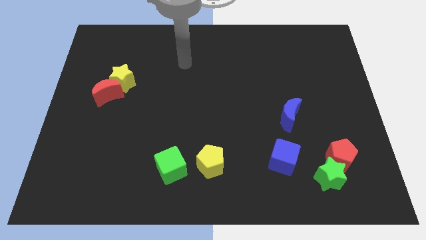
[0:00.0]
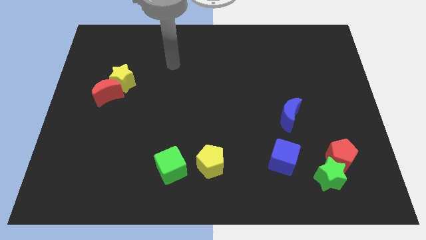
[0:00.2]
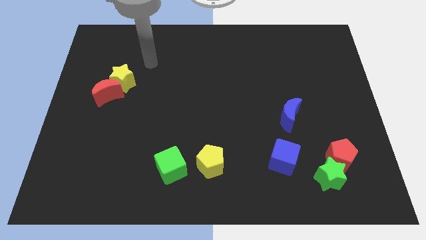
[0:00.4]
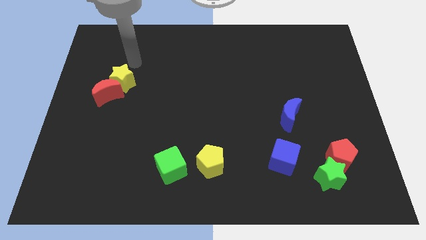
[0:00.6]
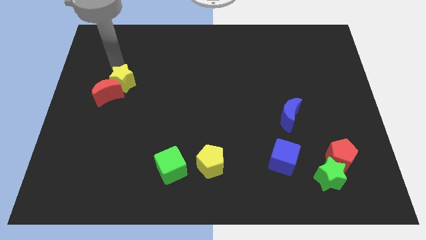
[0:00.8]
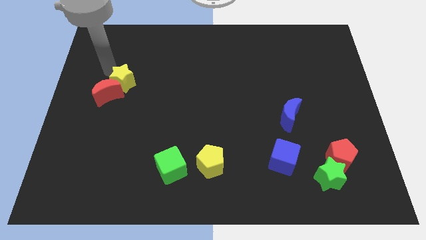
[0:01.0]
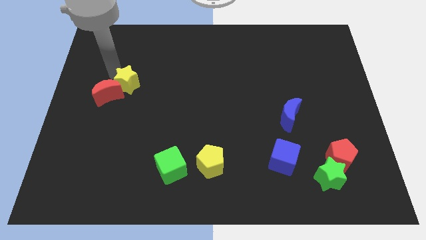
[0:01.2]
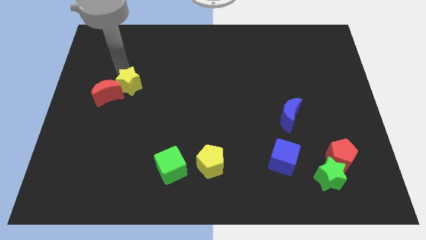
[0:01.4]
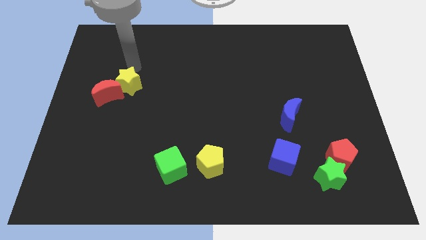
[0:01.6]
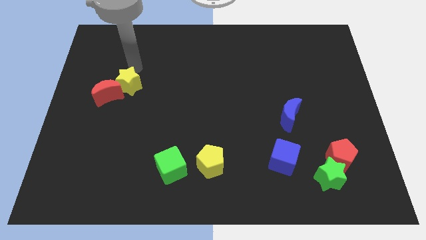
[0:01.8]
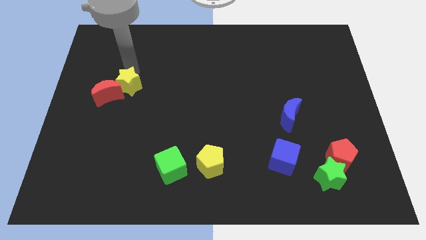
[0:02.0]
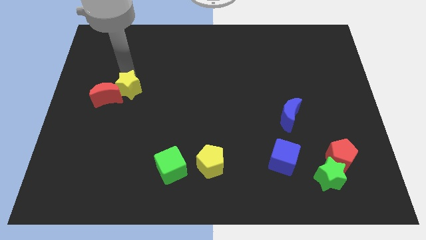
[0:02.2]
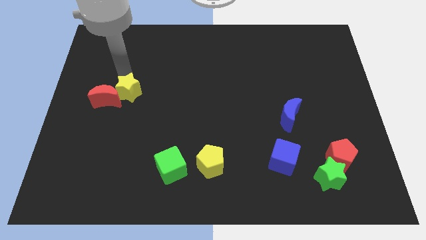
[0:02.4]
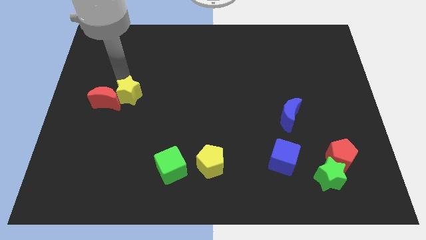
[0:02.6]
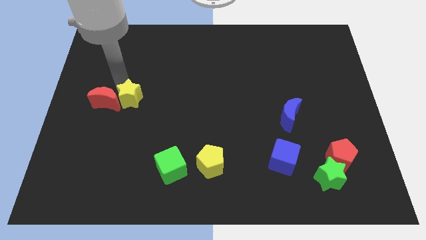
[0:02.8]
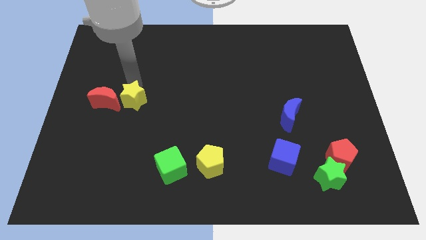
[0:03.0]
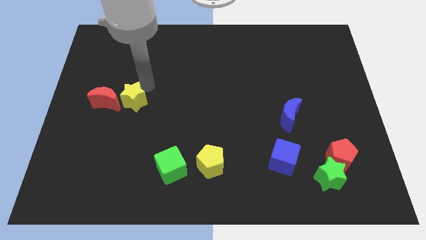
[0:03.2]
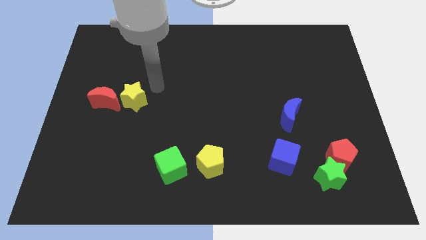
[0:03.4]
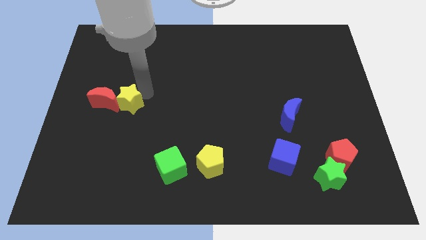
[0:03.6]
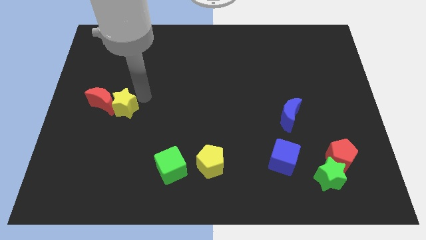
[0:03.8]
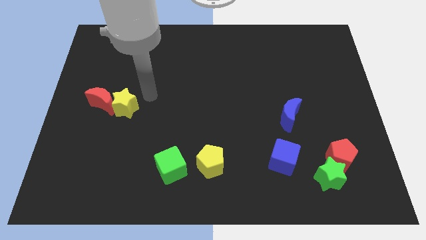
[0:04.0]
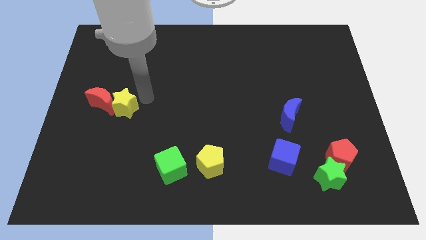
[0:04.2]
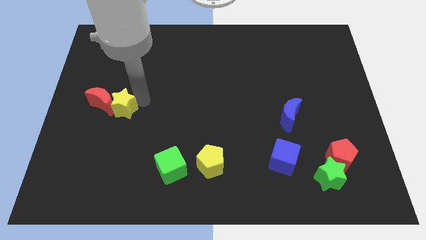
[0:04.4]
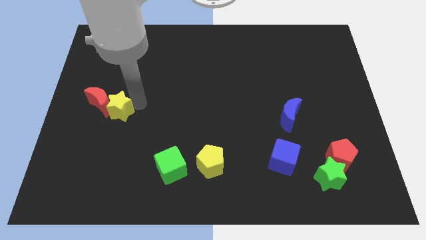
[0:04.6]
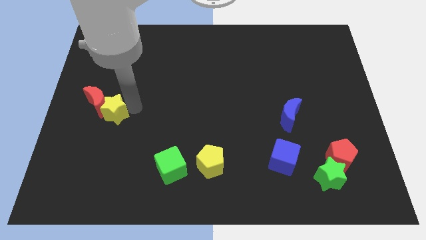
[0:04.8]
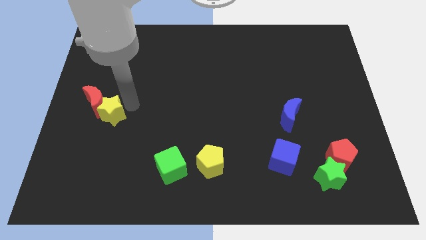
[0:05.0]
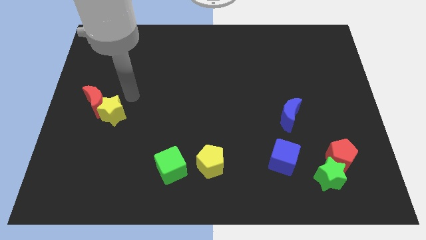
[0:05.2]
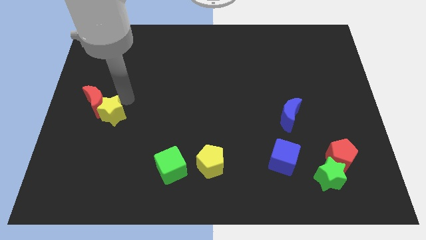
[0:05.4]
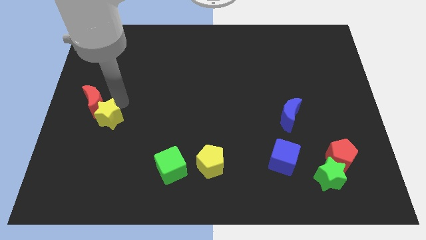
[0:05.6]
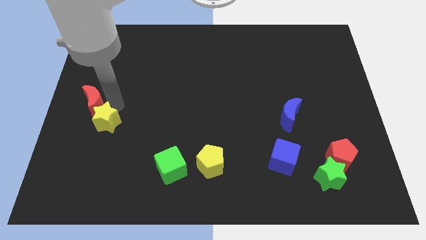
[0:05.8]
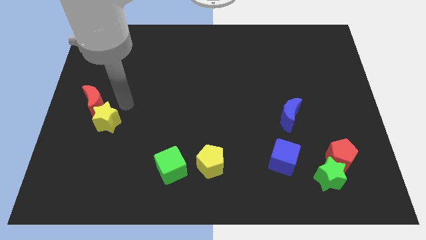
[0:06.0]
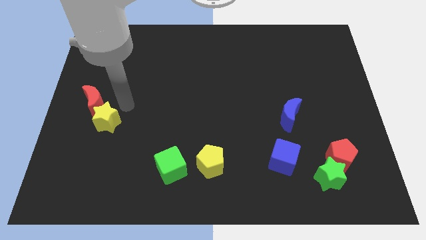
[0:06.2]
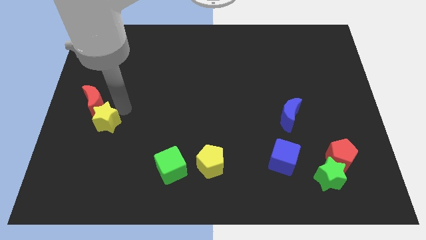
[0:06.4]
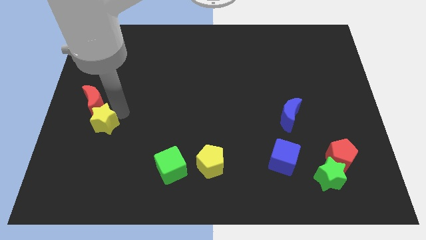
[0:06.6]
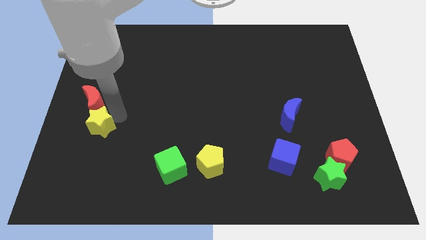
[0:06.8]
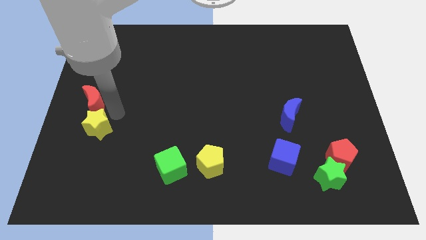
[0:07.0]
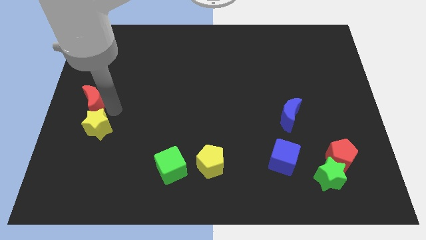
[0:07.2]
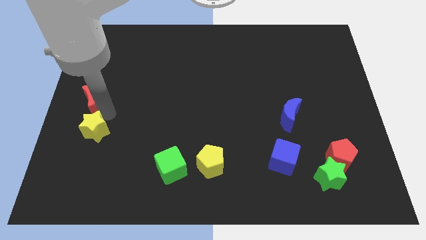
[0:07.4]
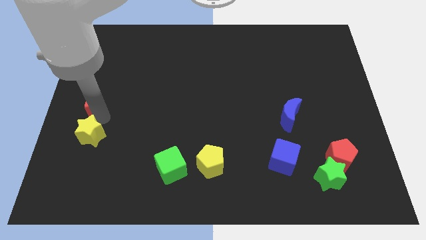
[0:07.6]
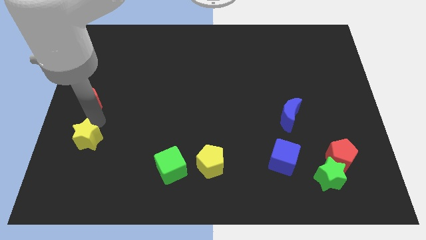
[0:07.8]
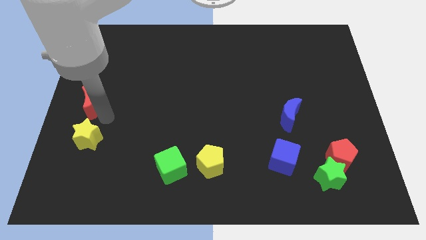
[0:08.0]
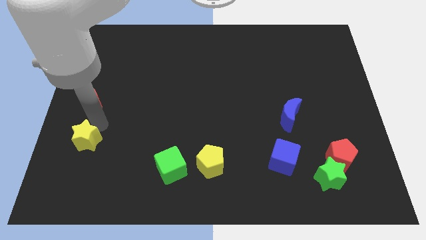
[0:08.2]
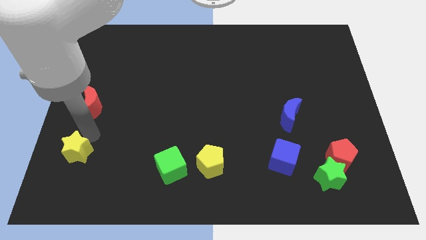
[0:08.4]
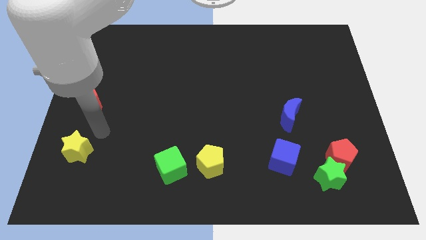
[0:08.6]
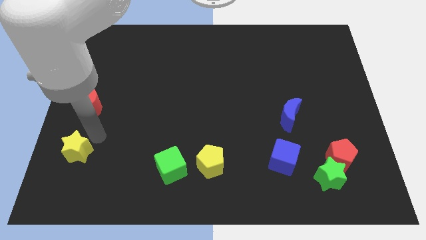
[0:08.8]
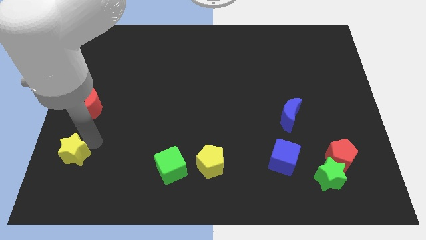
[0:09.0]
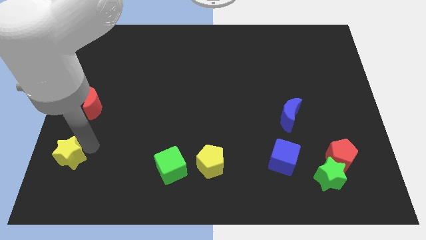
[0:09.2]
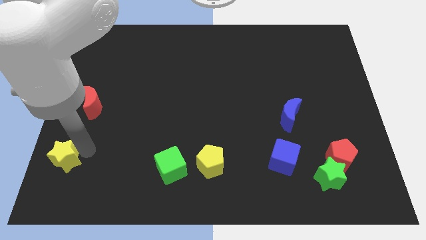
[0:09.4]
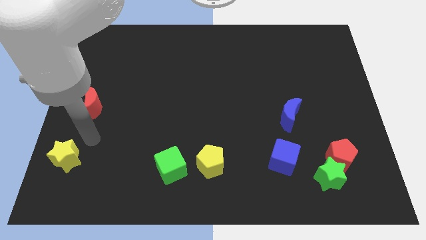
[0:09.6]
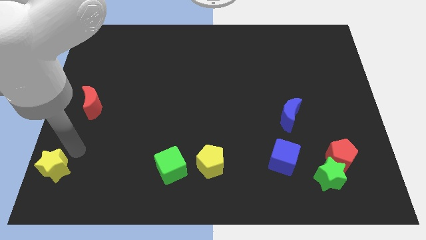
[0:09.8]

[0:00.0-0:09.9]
slide the yellow star to the bottom left of the board

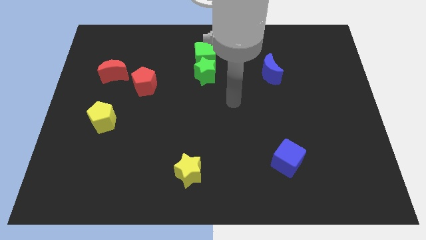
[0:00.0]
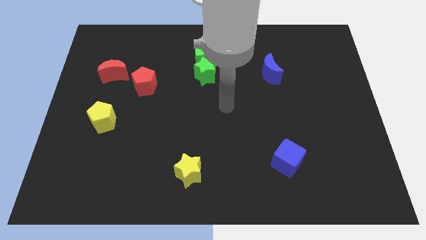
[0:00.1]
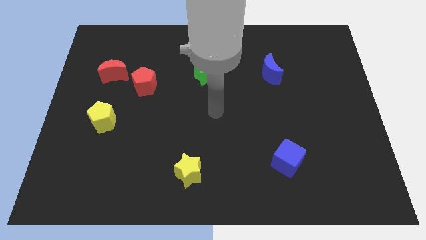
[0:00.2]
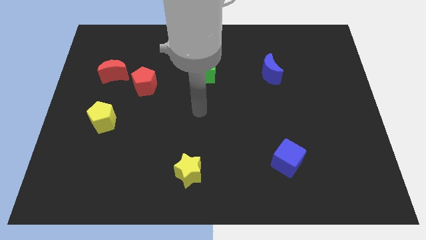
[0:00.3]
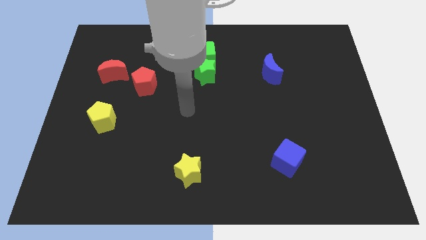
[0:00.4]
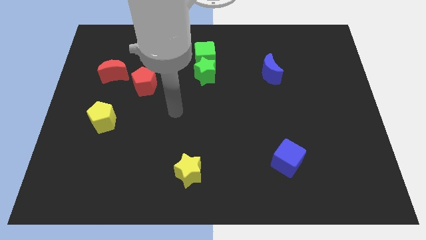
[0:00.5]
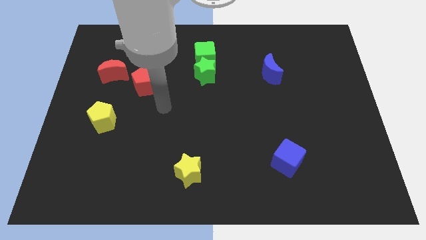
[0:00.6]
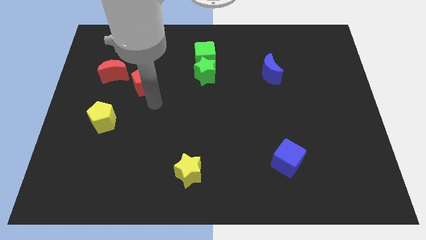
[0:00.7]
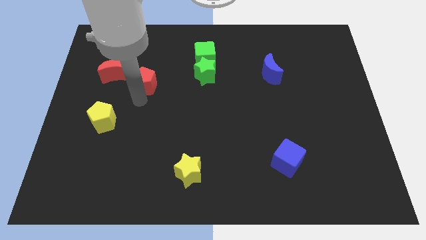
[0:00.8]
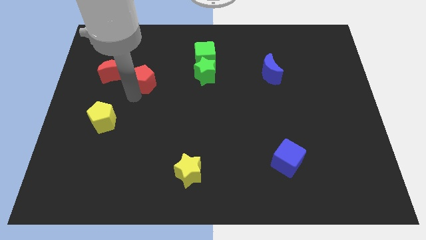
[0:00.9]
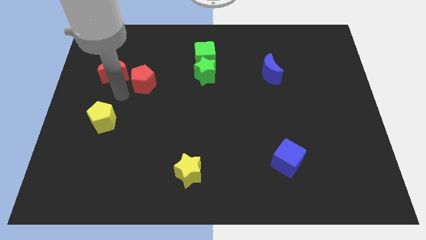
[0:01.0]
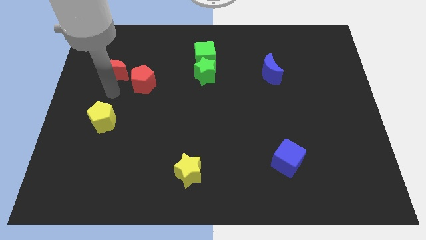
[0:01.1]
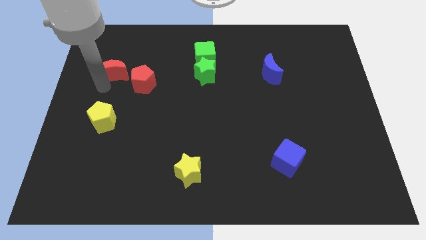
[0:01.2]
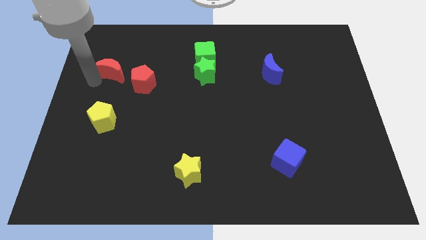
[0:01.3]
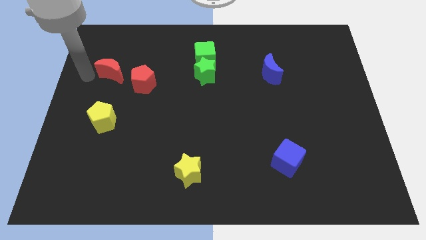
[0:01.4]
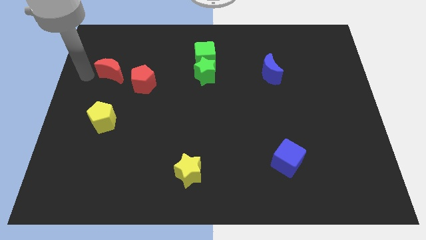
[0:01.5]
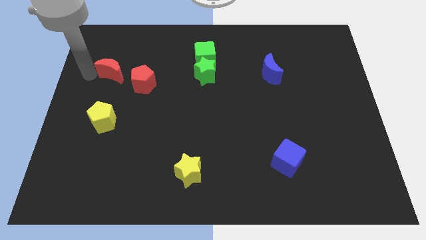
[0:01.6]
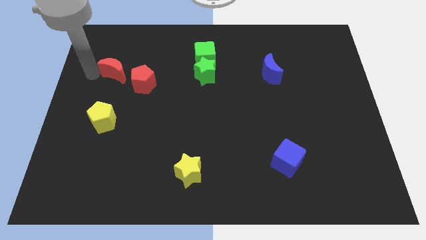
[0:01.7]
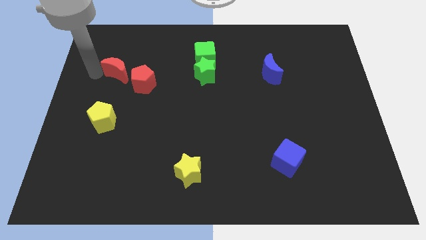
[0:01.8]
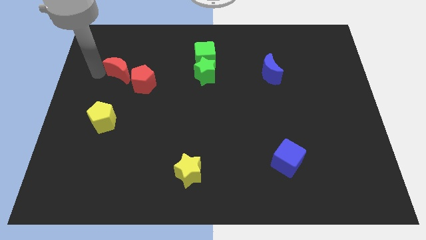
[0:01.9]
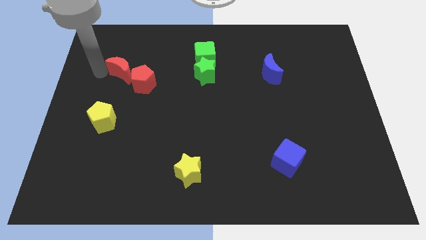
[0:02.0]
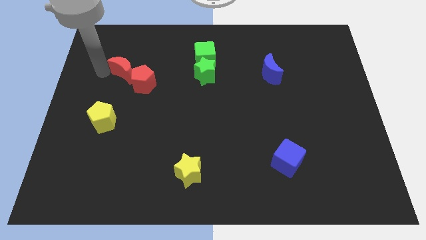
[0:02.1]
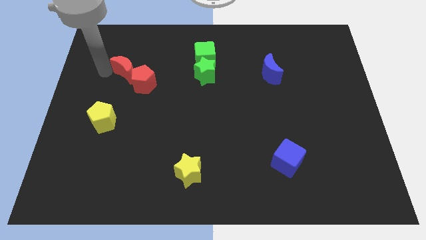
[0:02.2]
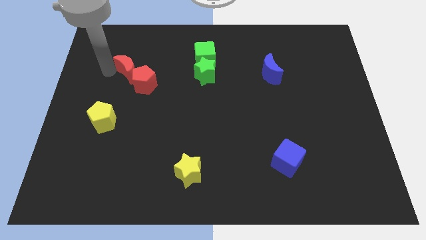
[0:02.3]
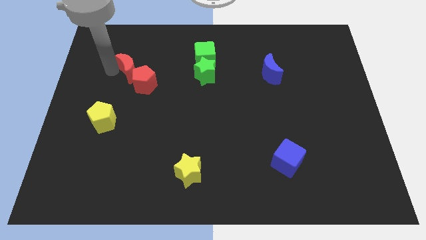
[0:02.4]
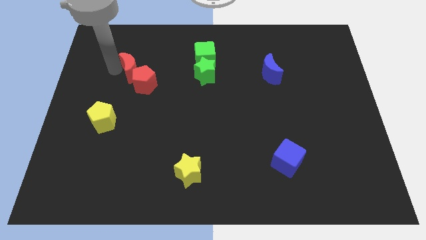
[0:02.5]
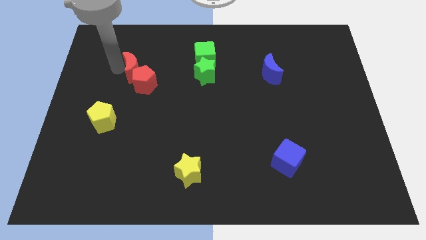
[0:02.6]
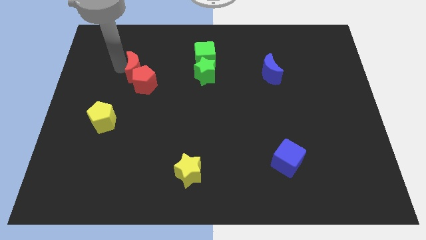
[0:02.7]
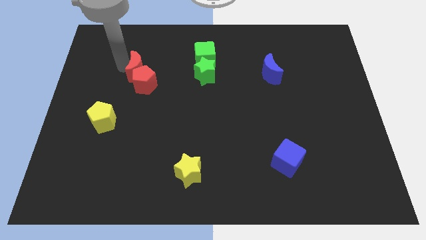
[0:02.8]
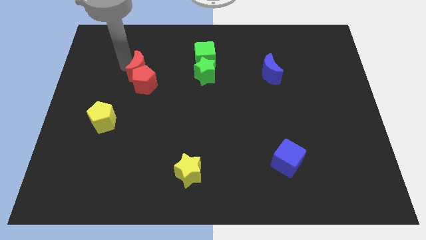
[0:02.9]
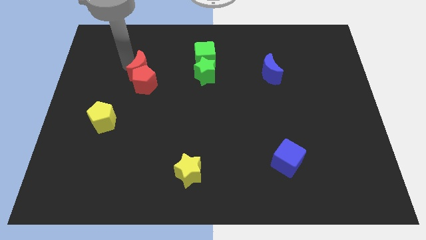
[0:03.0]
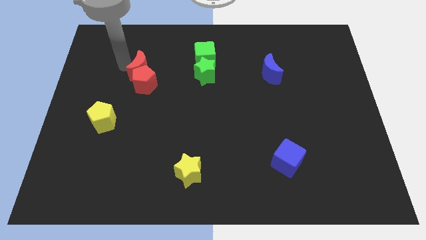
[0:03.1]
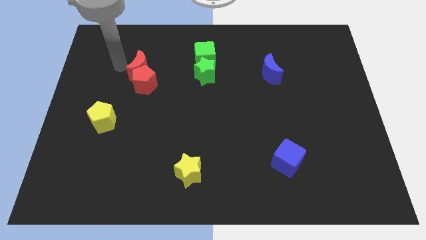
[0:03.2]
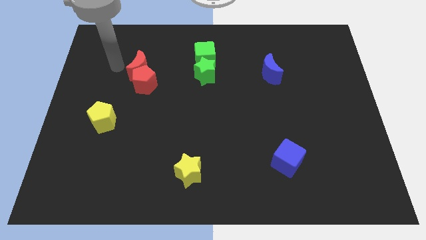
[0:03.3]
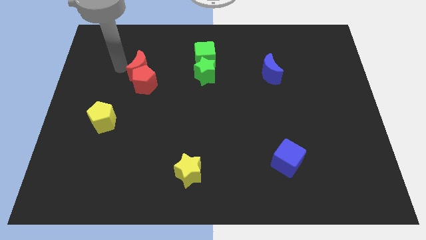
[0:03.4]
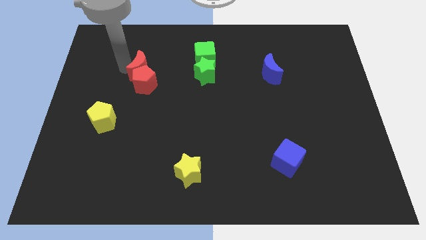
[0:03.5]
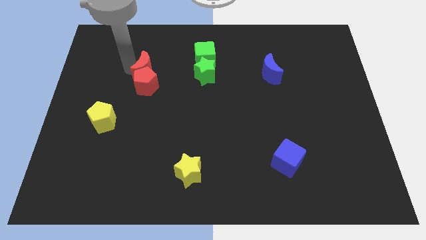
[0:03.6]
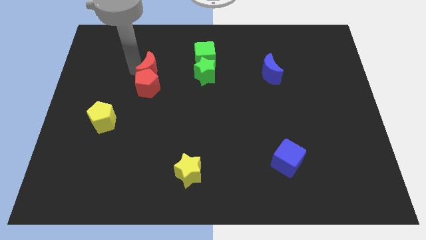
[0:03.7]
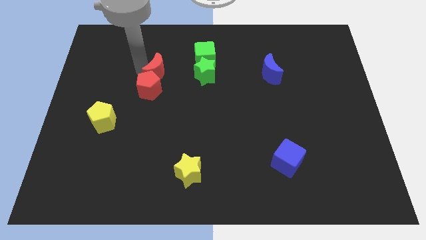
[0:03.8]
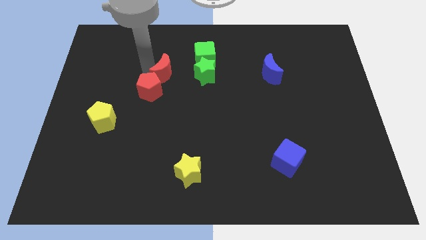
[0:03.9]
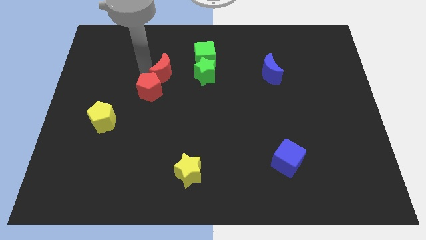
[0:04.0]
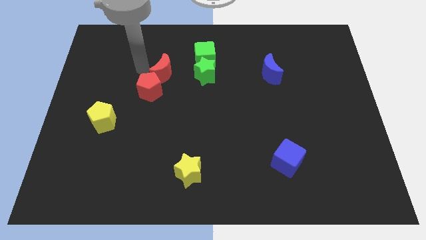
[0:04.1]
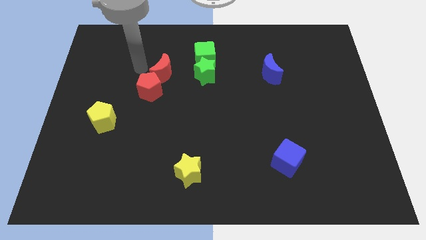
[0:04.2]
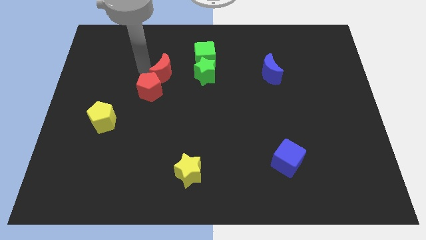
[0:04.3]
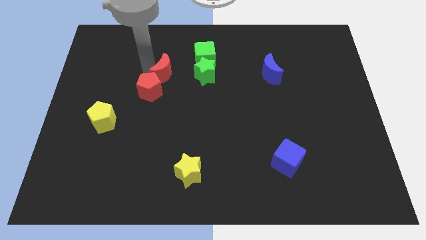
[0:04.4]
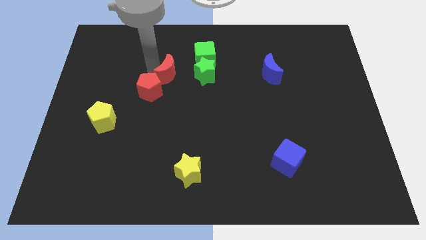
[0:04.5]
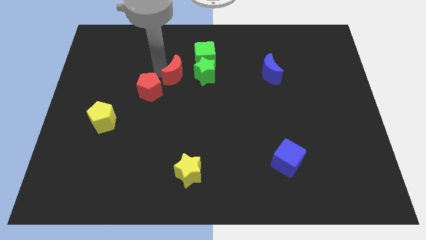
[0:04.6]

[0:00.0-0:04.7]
push the red moon to the middle of the board
